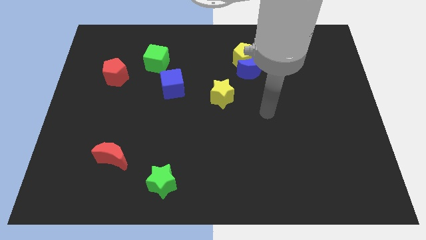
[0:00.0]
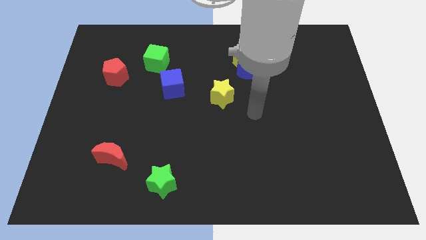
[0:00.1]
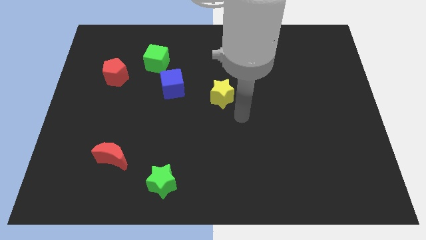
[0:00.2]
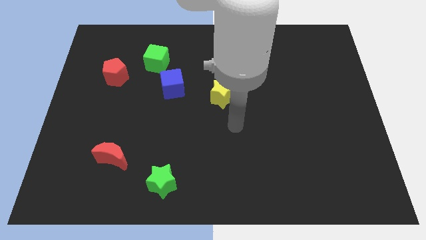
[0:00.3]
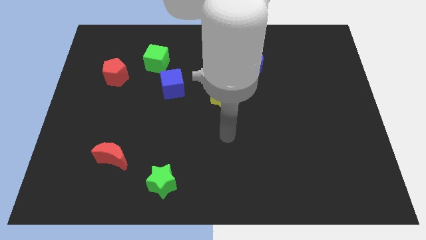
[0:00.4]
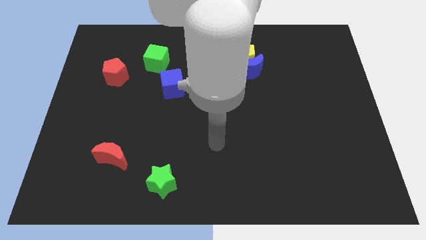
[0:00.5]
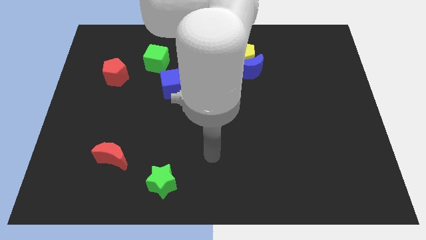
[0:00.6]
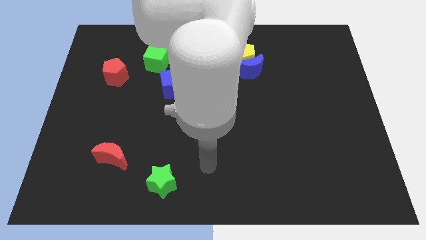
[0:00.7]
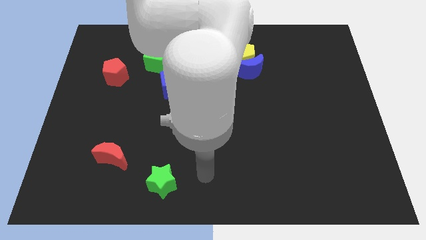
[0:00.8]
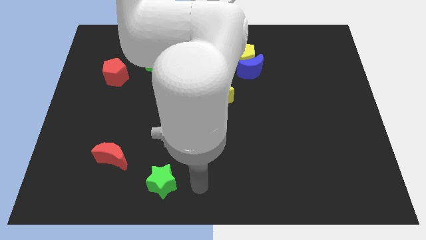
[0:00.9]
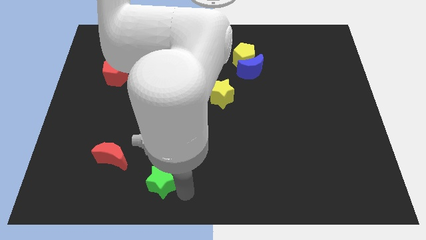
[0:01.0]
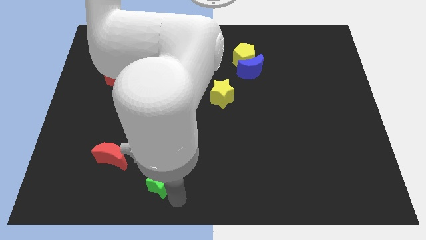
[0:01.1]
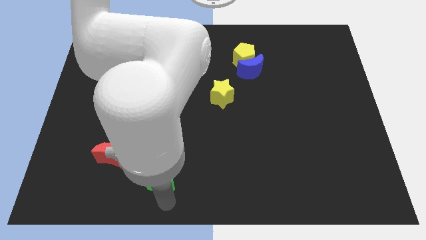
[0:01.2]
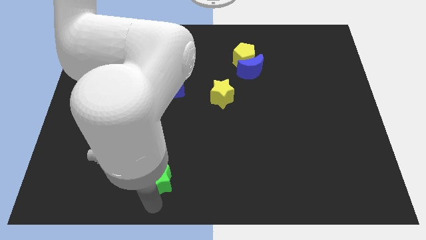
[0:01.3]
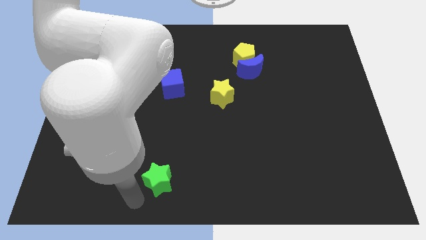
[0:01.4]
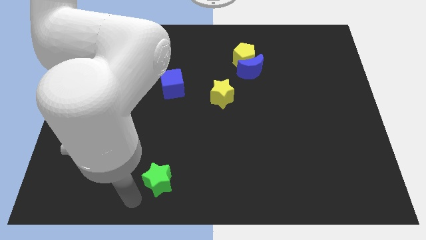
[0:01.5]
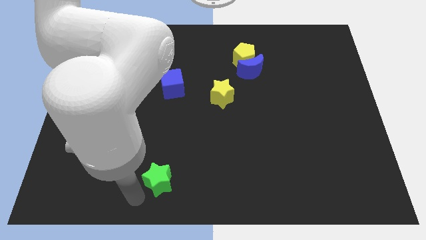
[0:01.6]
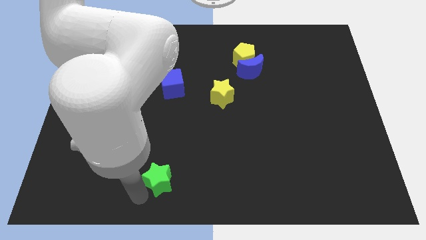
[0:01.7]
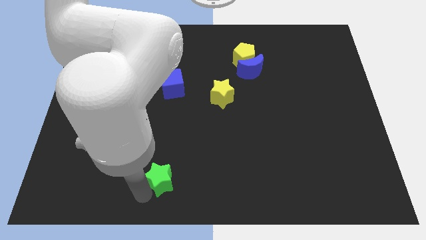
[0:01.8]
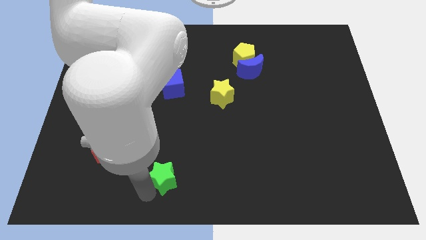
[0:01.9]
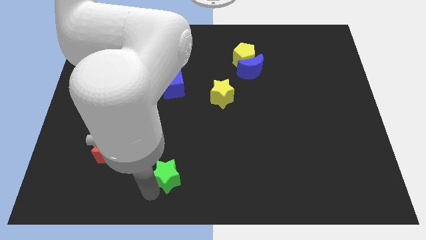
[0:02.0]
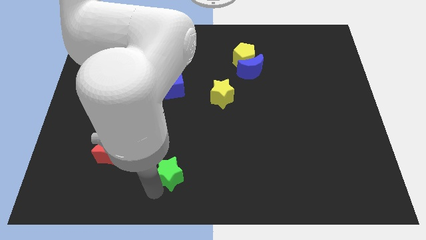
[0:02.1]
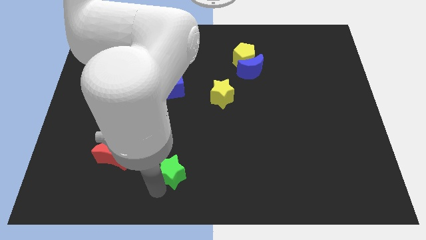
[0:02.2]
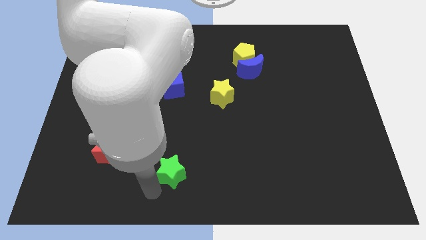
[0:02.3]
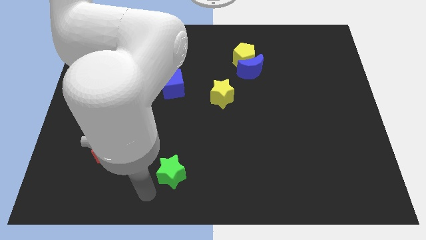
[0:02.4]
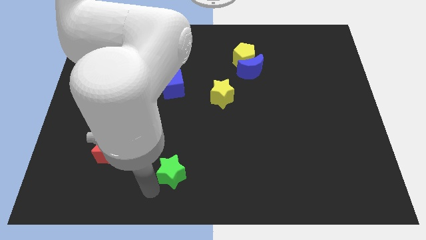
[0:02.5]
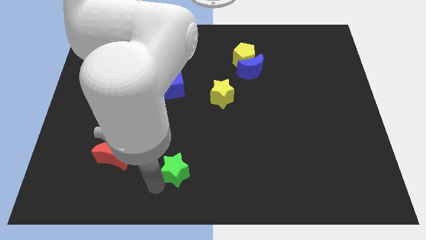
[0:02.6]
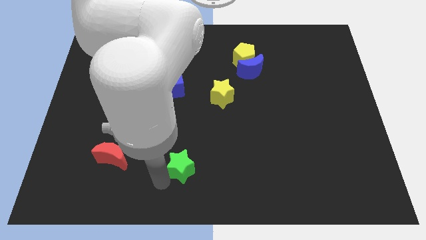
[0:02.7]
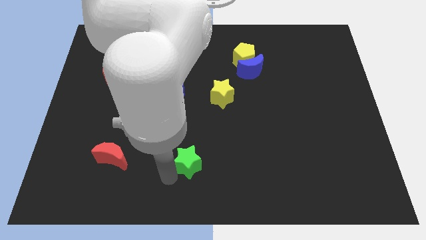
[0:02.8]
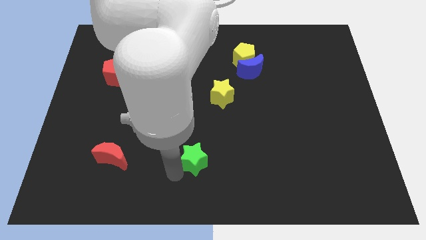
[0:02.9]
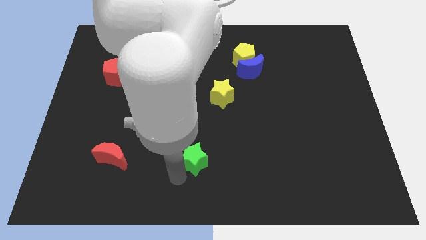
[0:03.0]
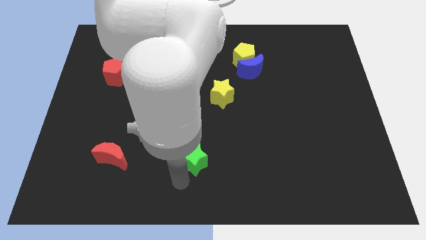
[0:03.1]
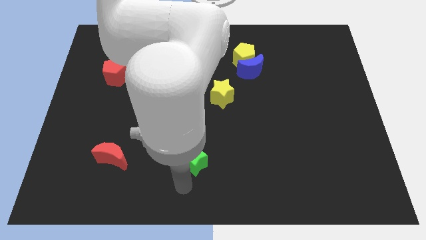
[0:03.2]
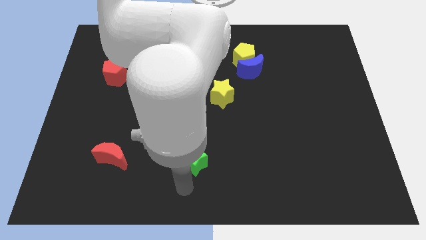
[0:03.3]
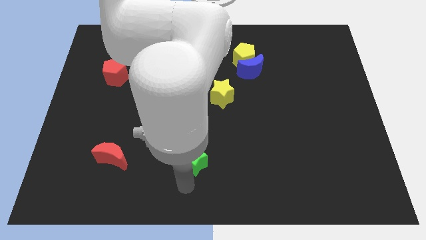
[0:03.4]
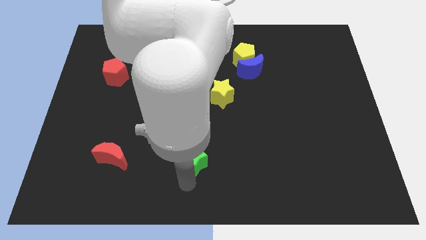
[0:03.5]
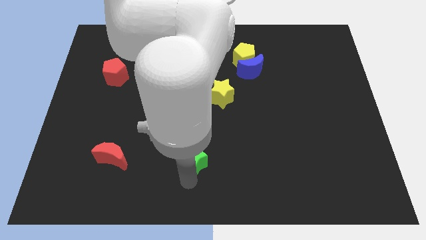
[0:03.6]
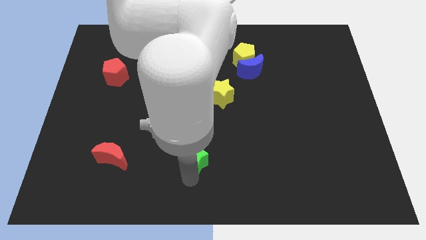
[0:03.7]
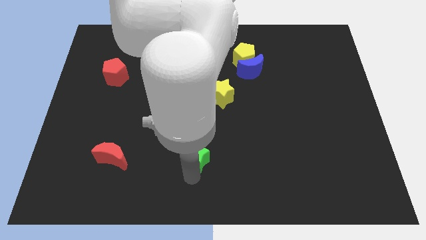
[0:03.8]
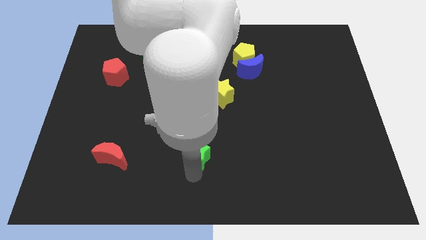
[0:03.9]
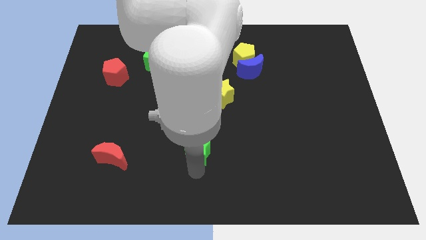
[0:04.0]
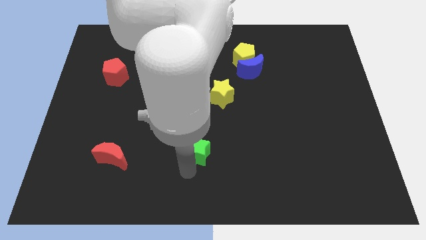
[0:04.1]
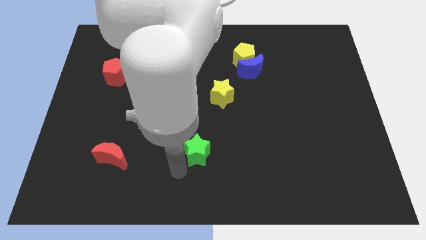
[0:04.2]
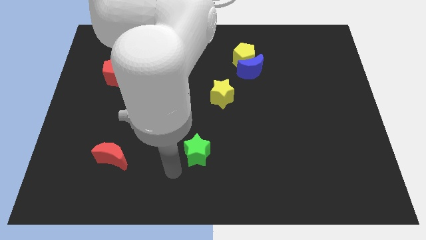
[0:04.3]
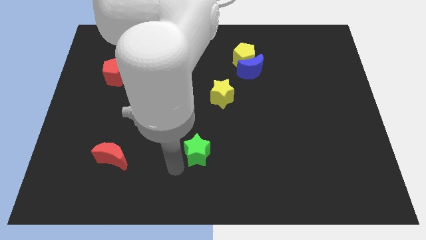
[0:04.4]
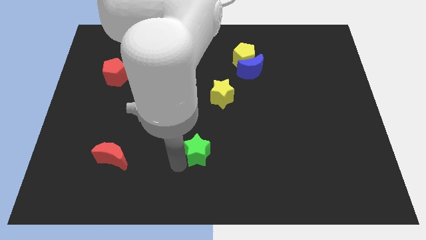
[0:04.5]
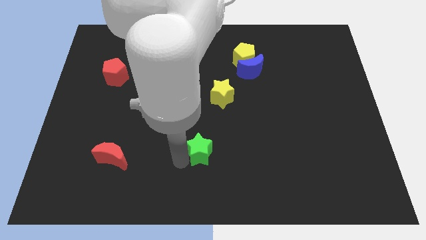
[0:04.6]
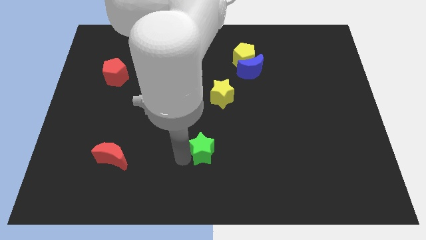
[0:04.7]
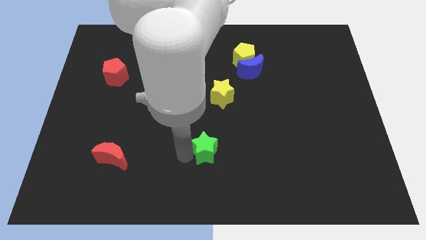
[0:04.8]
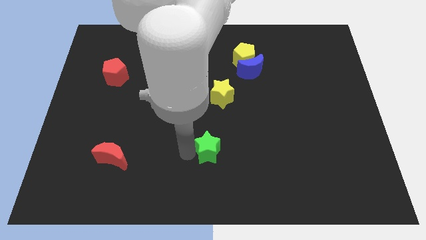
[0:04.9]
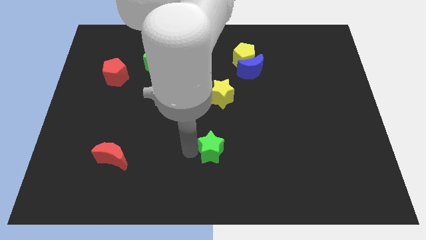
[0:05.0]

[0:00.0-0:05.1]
put the green star to the bottom of the yellow star

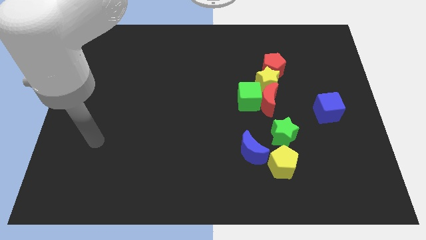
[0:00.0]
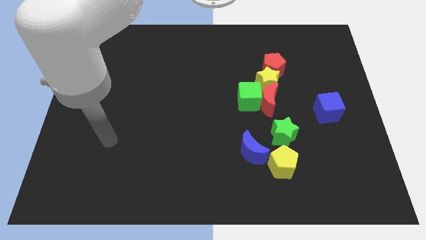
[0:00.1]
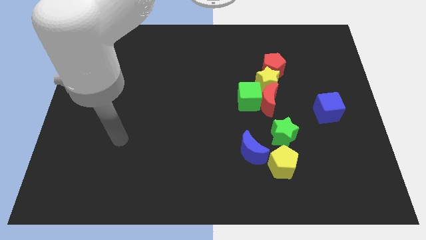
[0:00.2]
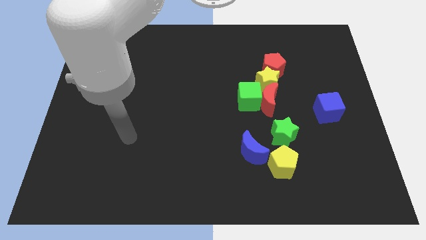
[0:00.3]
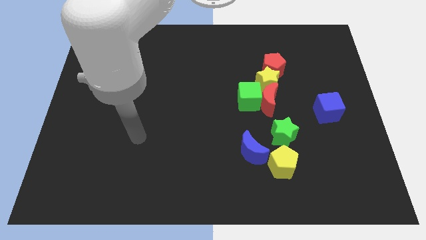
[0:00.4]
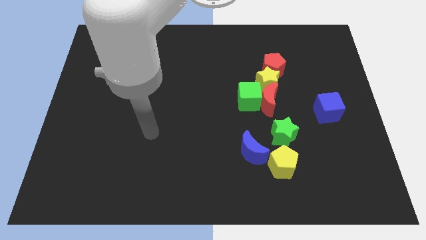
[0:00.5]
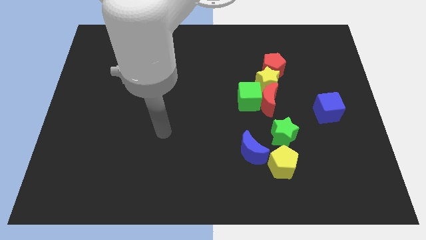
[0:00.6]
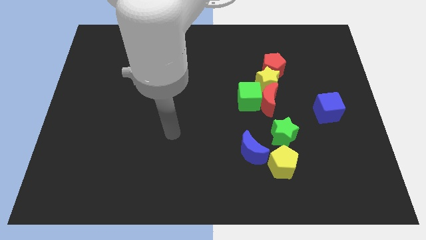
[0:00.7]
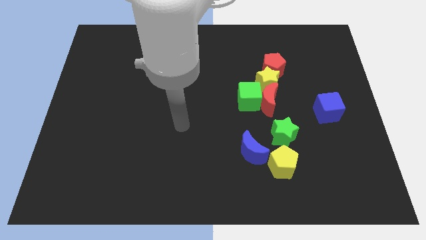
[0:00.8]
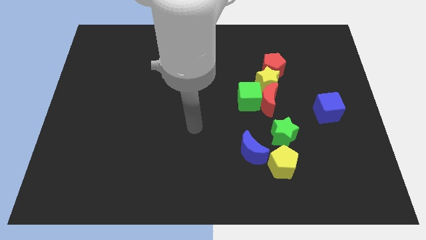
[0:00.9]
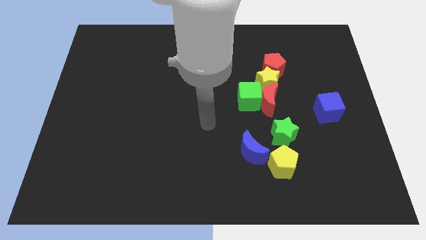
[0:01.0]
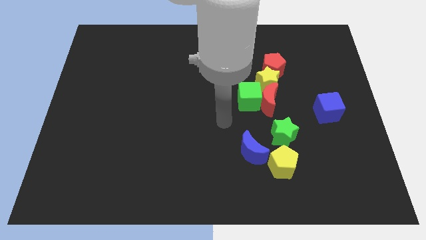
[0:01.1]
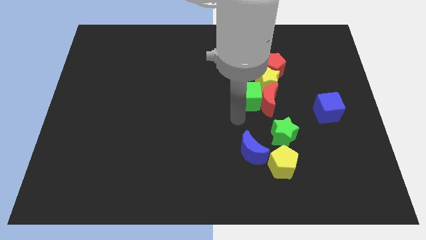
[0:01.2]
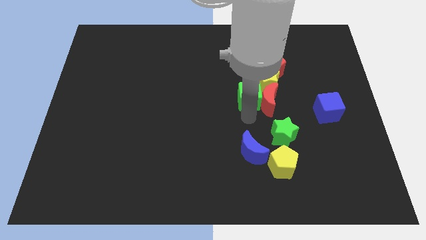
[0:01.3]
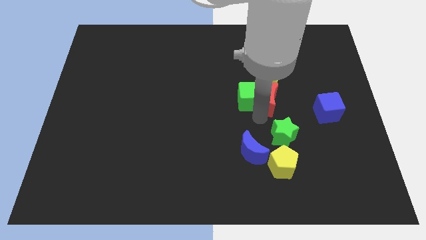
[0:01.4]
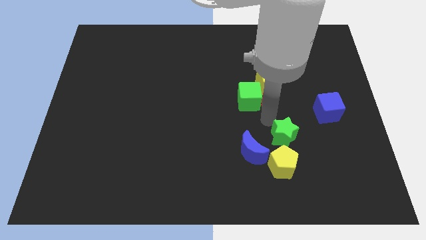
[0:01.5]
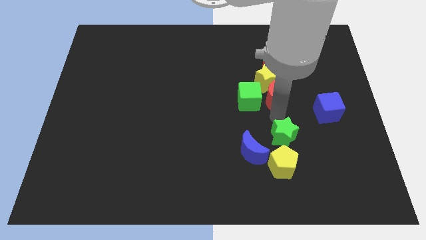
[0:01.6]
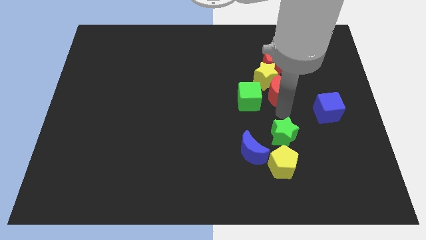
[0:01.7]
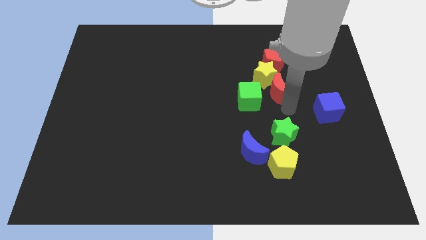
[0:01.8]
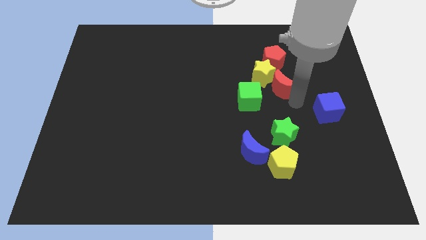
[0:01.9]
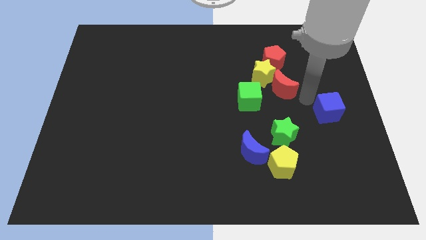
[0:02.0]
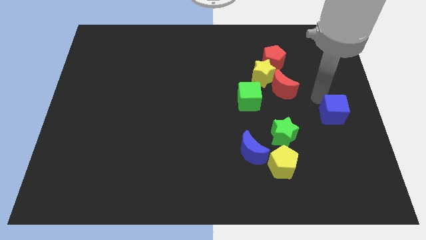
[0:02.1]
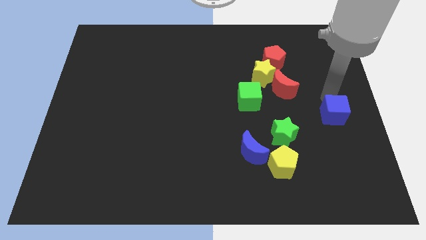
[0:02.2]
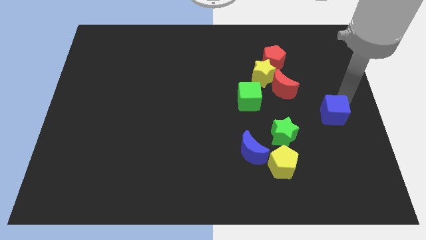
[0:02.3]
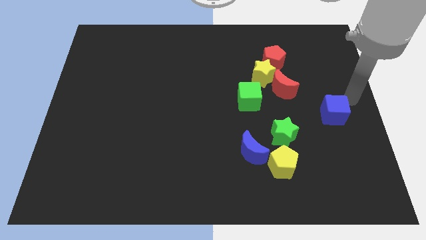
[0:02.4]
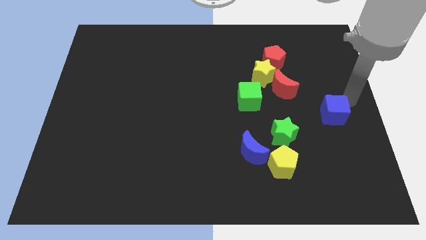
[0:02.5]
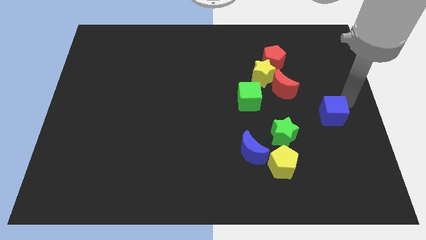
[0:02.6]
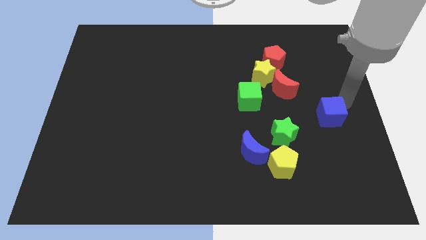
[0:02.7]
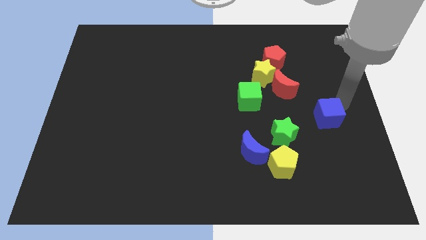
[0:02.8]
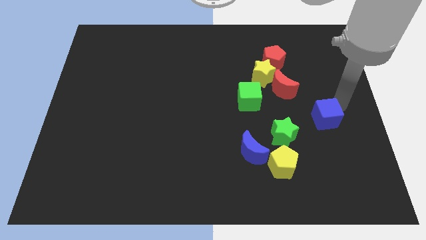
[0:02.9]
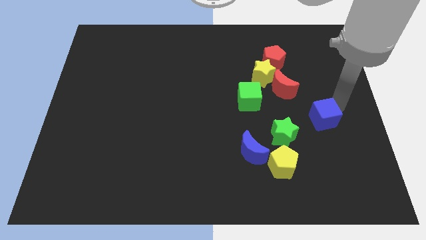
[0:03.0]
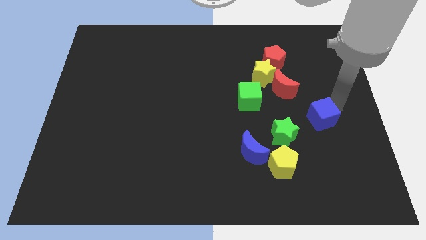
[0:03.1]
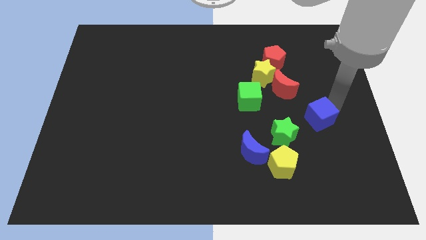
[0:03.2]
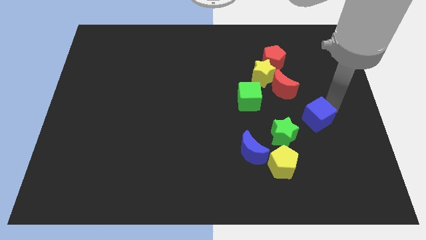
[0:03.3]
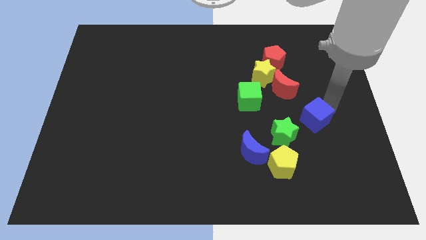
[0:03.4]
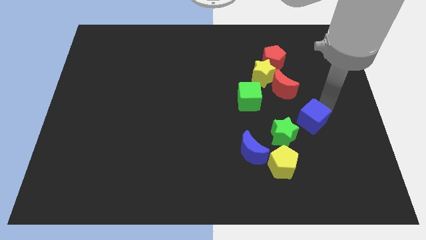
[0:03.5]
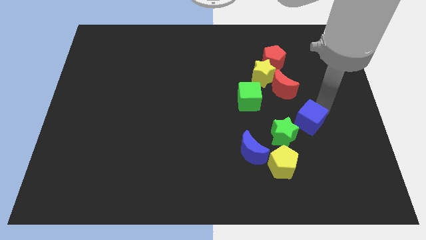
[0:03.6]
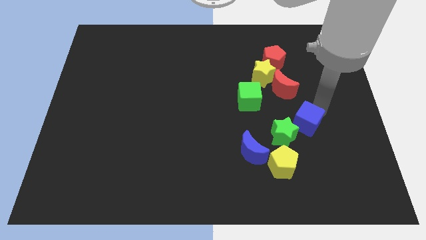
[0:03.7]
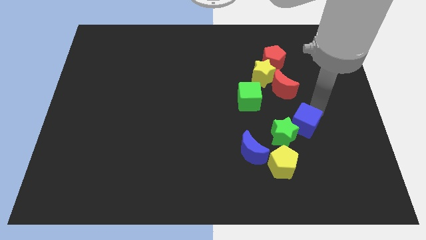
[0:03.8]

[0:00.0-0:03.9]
slide the blue cube diagonally up and to the right of the yellow pentagon
